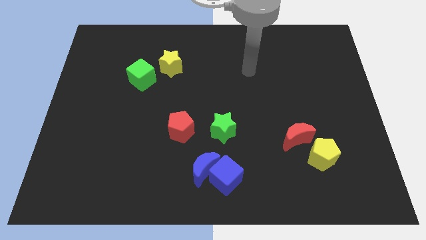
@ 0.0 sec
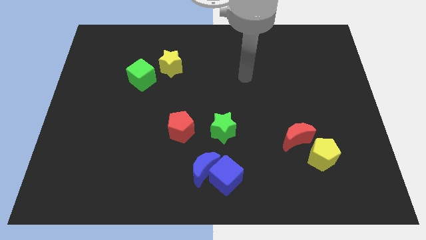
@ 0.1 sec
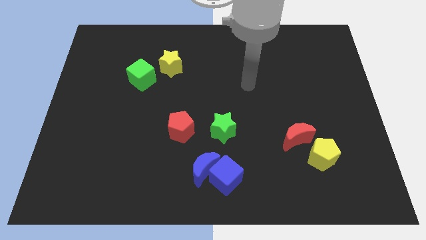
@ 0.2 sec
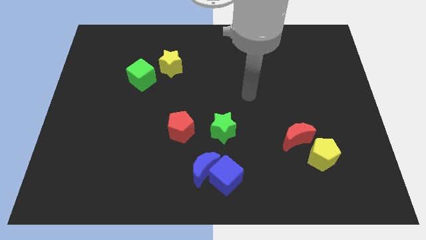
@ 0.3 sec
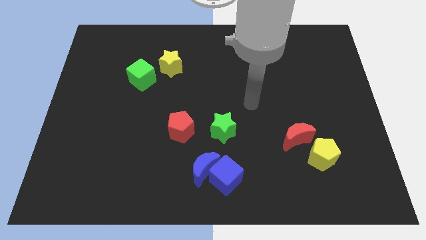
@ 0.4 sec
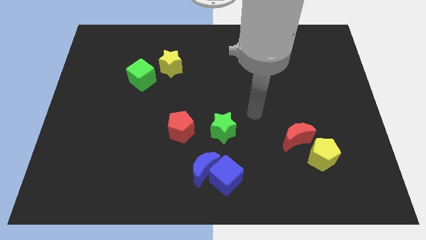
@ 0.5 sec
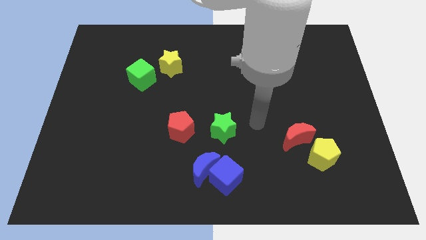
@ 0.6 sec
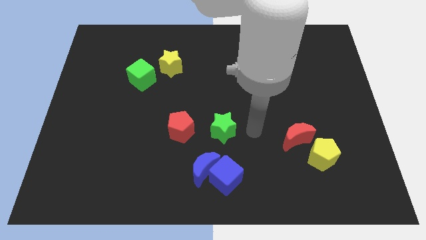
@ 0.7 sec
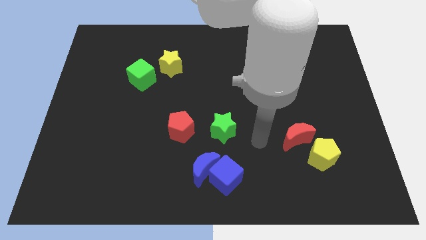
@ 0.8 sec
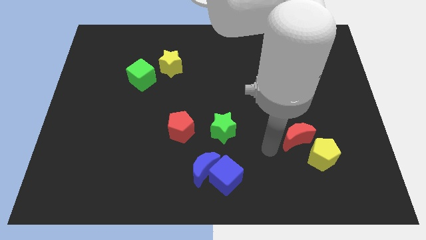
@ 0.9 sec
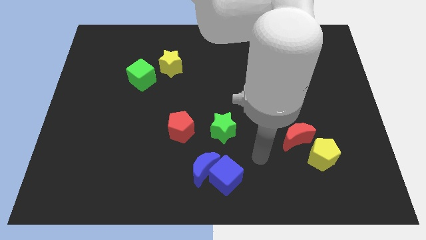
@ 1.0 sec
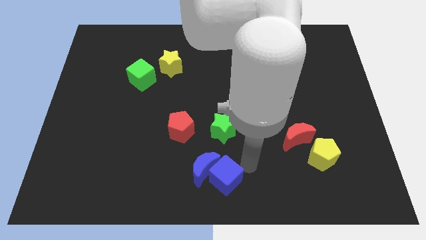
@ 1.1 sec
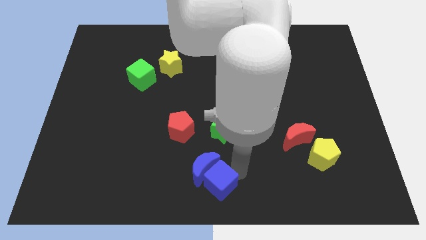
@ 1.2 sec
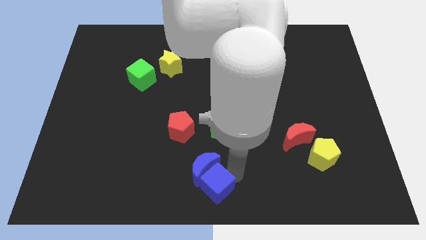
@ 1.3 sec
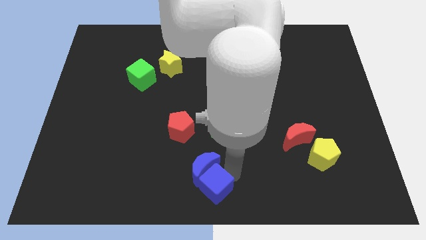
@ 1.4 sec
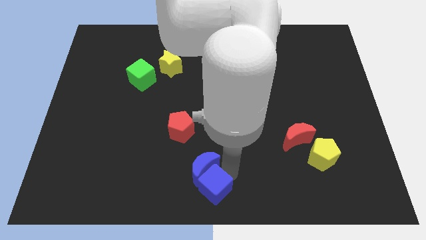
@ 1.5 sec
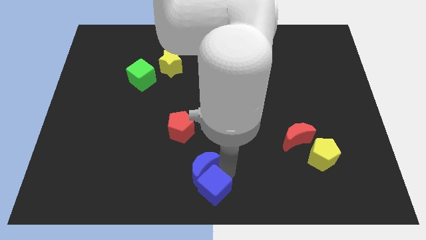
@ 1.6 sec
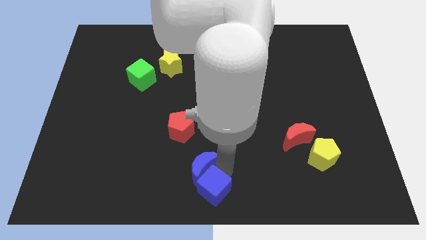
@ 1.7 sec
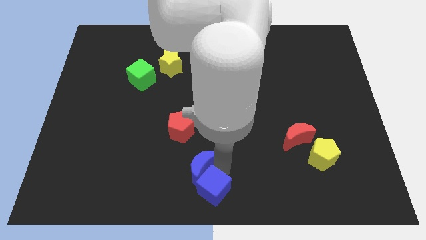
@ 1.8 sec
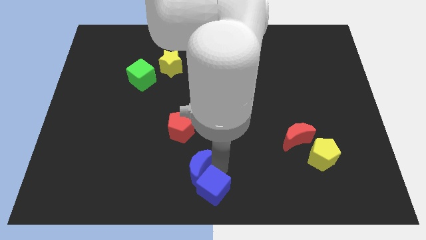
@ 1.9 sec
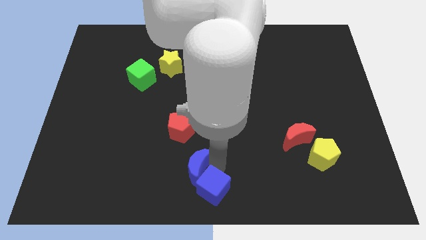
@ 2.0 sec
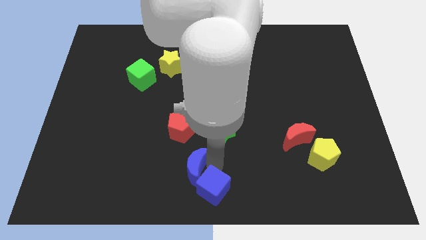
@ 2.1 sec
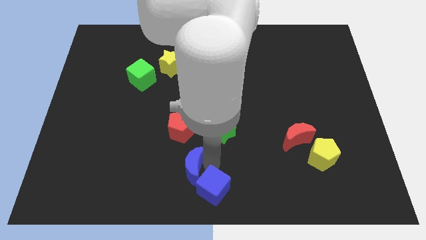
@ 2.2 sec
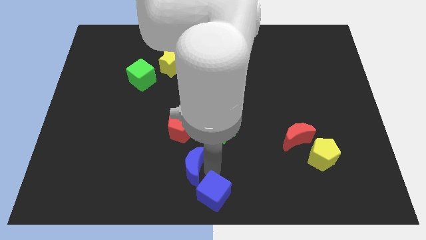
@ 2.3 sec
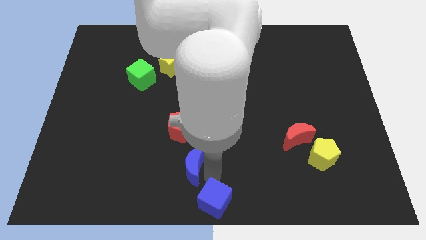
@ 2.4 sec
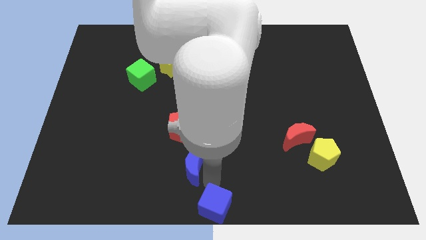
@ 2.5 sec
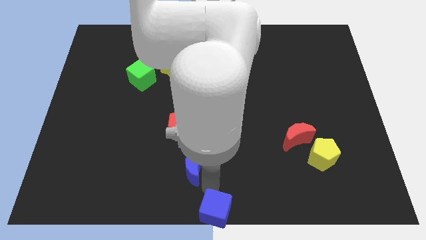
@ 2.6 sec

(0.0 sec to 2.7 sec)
move the blue moon away from the blue cube

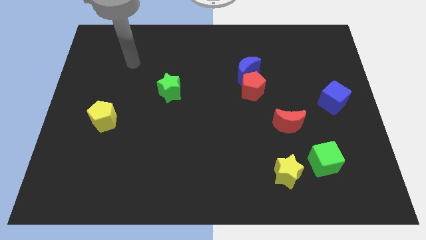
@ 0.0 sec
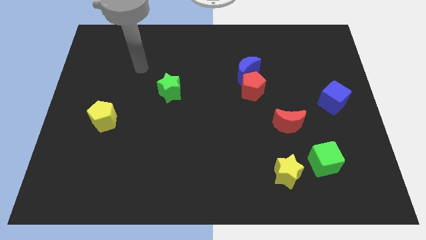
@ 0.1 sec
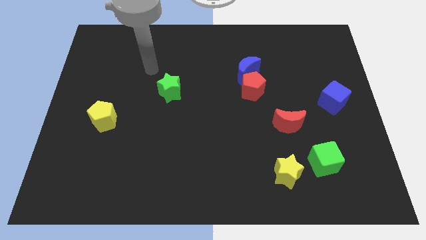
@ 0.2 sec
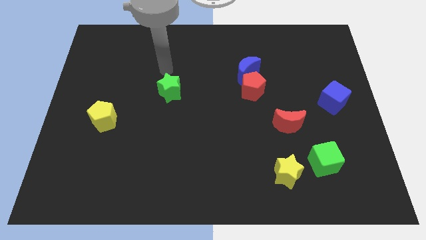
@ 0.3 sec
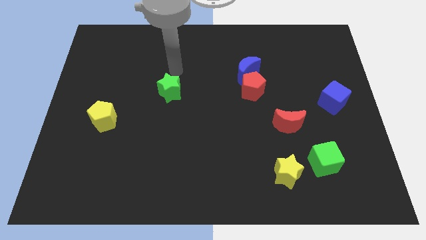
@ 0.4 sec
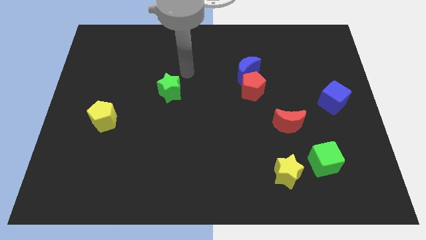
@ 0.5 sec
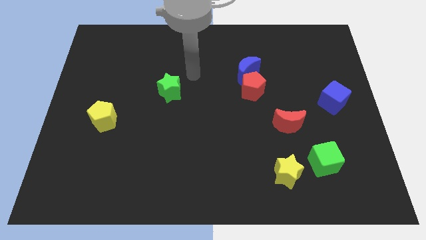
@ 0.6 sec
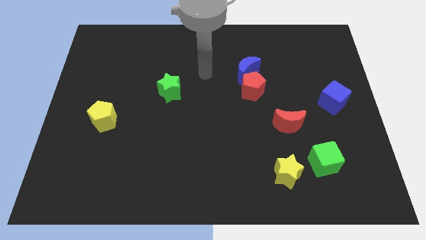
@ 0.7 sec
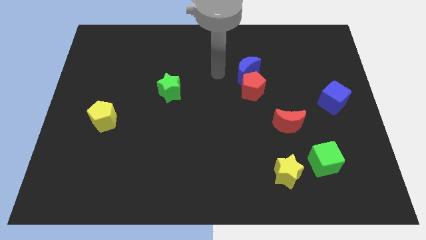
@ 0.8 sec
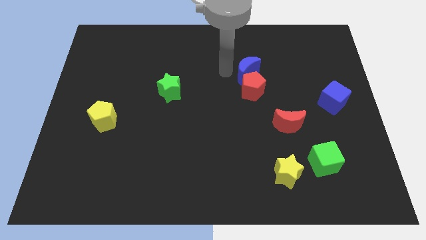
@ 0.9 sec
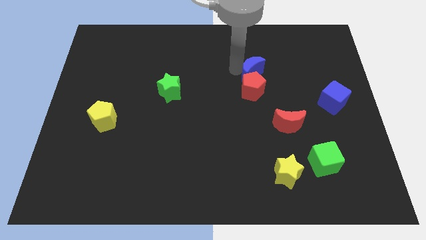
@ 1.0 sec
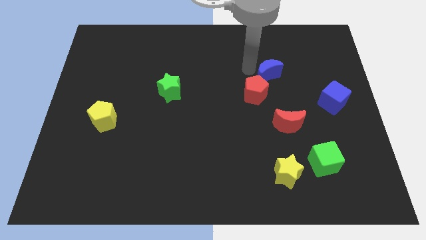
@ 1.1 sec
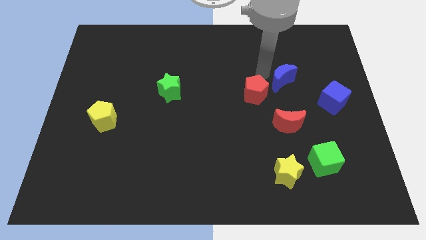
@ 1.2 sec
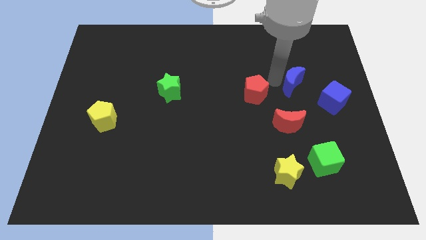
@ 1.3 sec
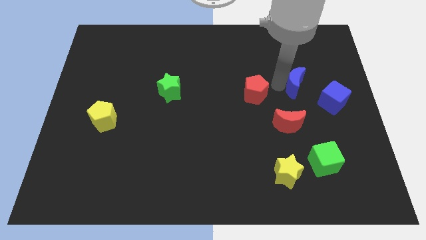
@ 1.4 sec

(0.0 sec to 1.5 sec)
separate the red pentagon from the blue moon

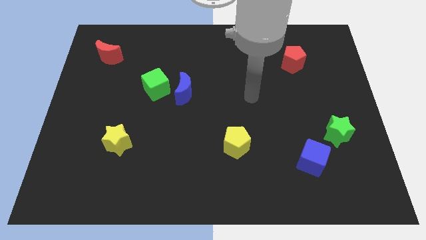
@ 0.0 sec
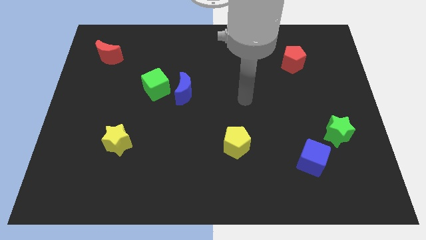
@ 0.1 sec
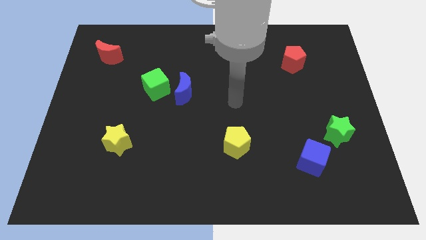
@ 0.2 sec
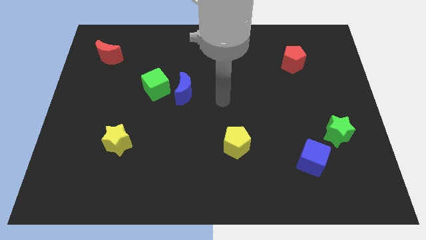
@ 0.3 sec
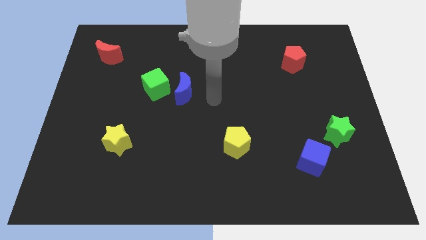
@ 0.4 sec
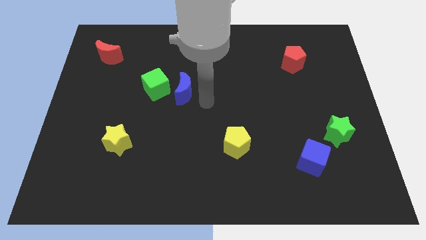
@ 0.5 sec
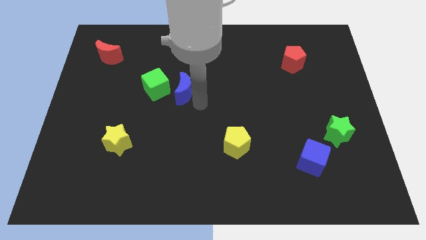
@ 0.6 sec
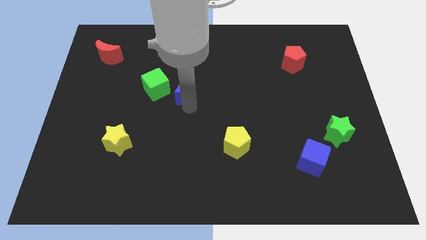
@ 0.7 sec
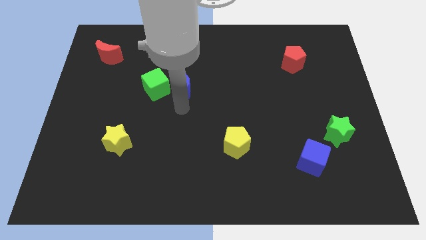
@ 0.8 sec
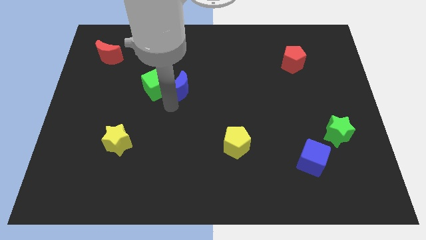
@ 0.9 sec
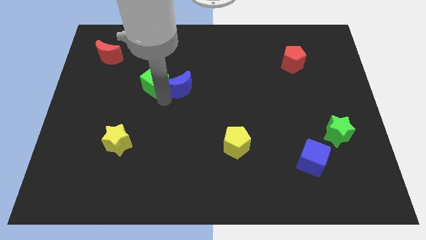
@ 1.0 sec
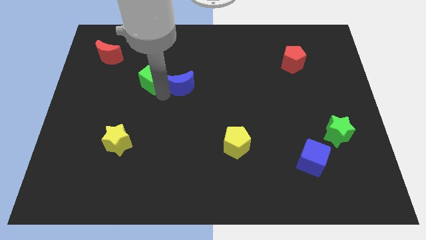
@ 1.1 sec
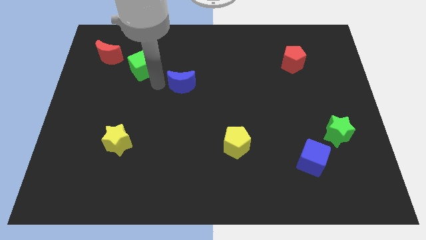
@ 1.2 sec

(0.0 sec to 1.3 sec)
move the blue moon away from the green cube

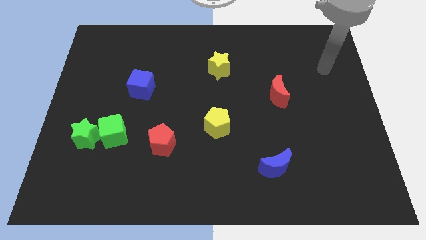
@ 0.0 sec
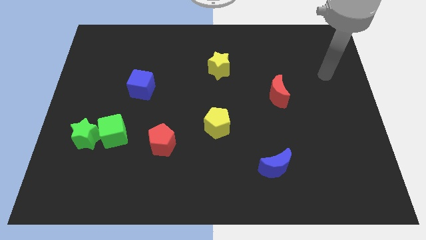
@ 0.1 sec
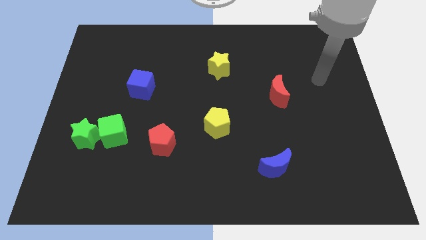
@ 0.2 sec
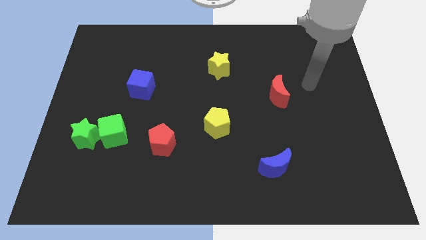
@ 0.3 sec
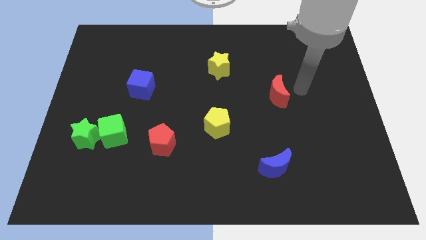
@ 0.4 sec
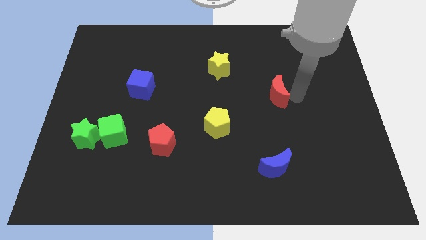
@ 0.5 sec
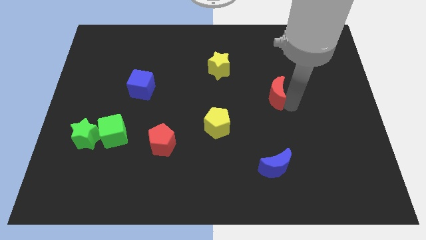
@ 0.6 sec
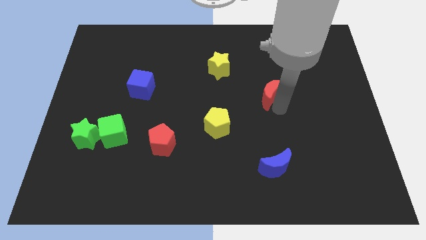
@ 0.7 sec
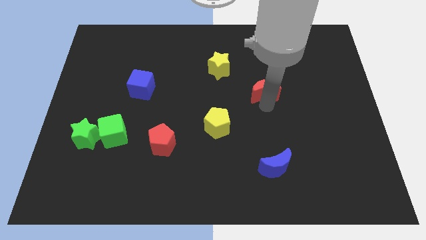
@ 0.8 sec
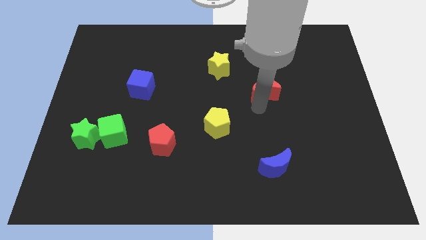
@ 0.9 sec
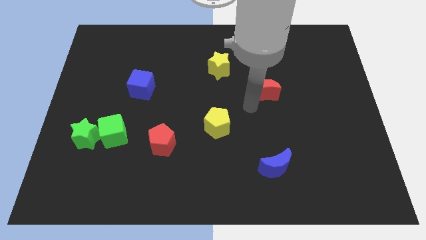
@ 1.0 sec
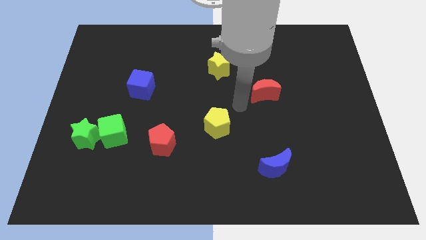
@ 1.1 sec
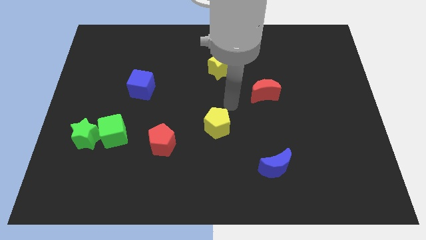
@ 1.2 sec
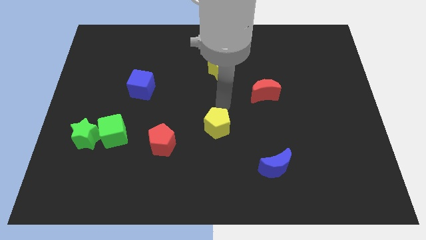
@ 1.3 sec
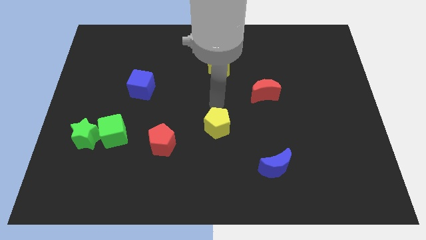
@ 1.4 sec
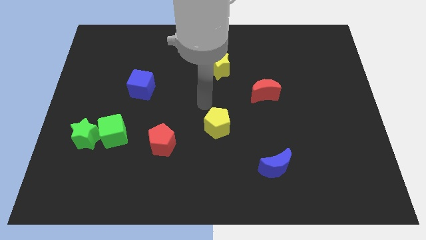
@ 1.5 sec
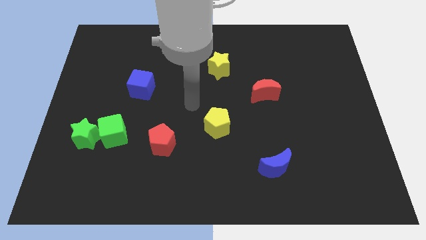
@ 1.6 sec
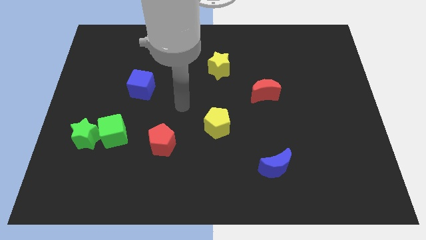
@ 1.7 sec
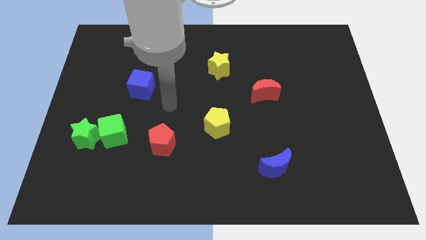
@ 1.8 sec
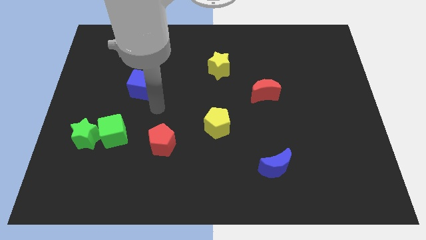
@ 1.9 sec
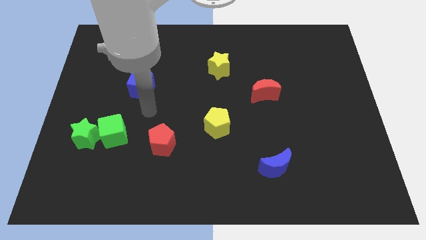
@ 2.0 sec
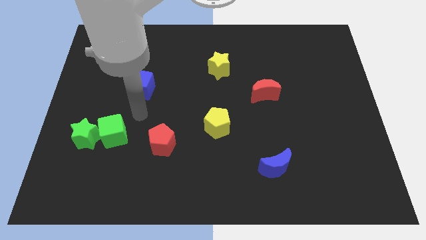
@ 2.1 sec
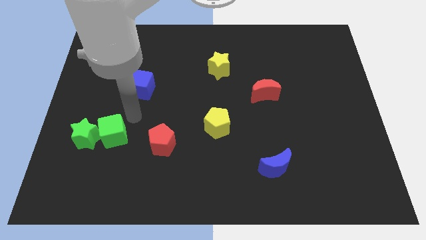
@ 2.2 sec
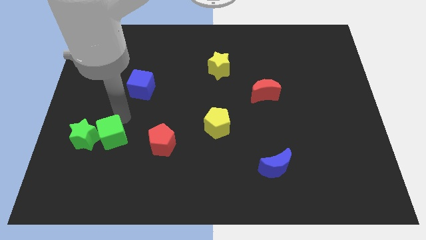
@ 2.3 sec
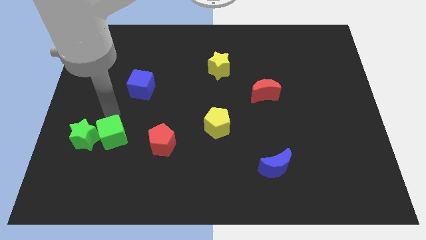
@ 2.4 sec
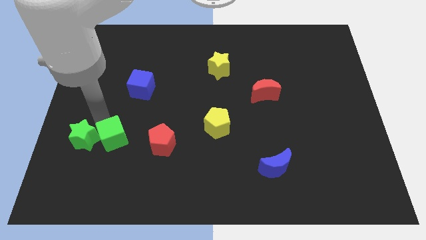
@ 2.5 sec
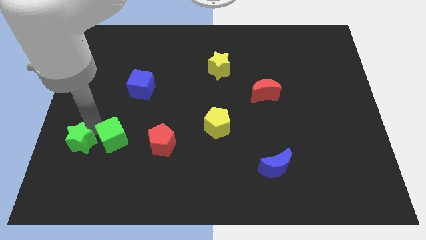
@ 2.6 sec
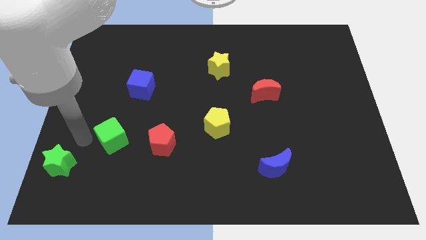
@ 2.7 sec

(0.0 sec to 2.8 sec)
move the green cube away from the green star

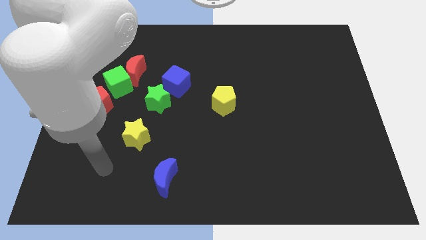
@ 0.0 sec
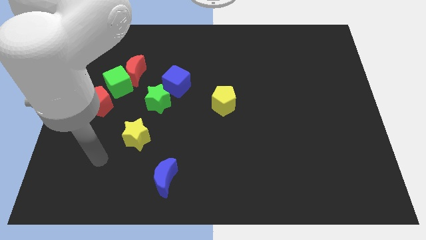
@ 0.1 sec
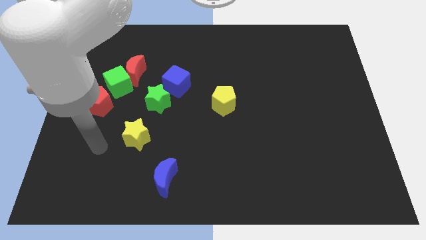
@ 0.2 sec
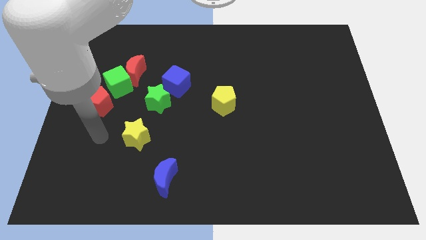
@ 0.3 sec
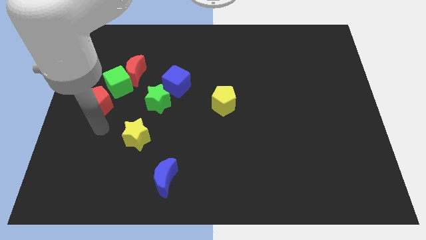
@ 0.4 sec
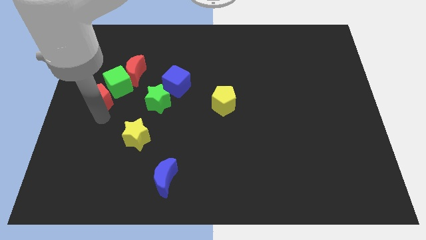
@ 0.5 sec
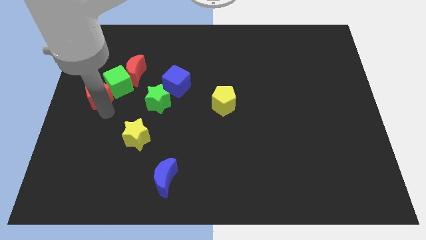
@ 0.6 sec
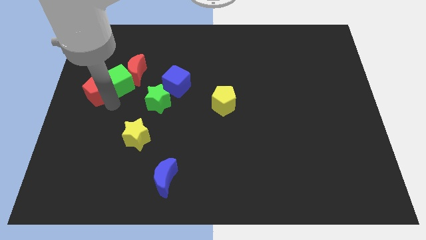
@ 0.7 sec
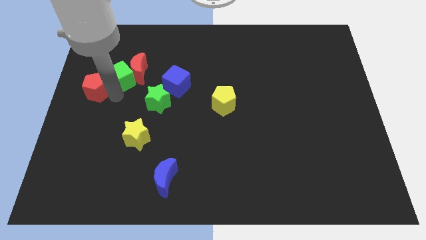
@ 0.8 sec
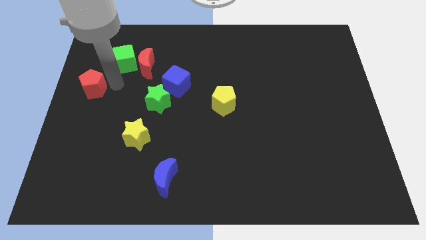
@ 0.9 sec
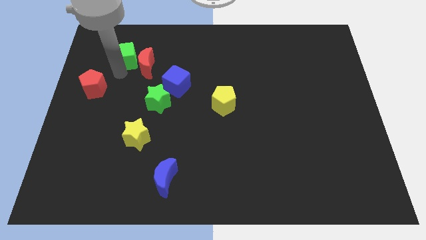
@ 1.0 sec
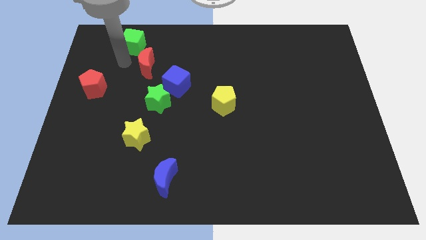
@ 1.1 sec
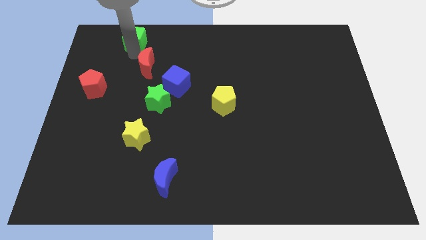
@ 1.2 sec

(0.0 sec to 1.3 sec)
move the red moon away from the green cube
